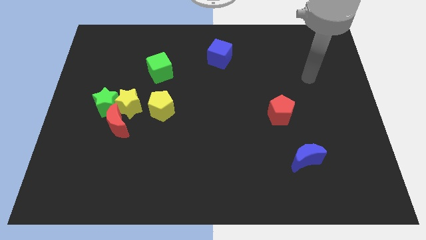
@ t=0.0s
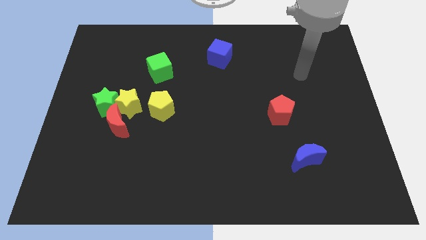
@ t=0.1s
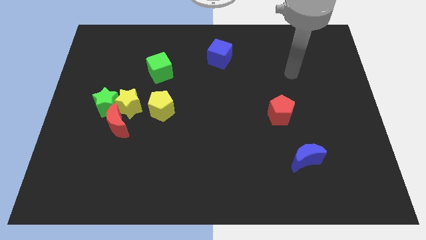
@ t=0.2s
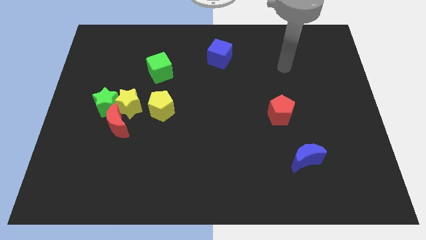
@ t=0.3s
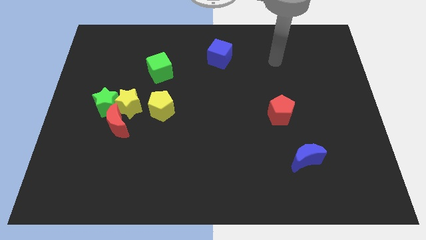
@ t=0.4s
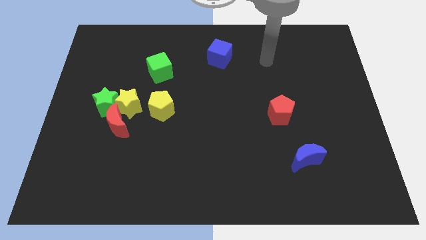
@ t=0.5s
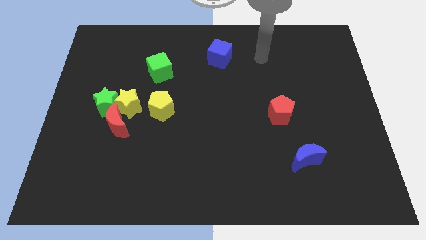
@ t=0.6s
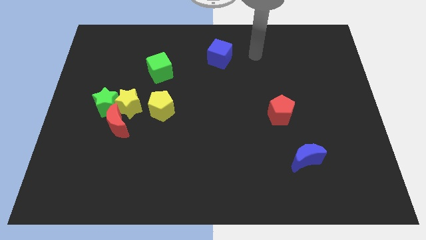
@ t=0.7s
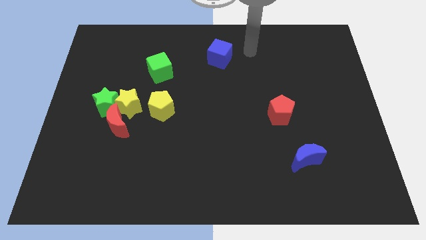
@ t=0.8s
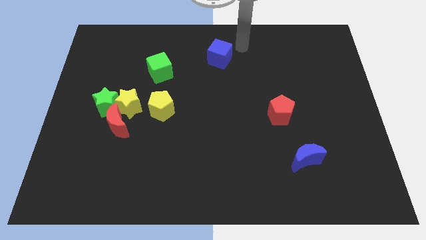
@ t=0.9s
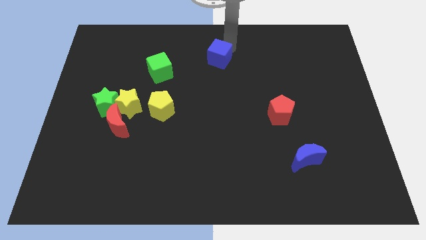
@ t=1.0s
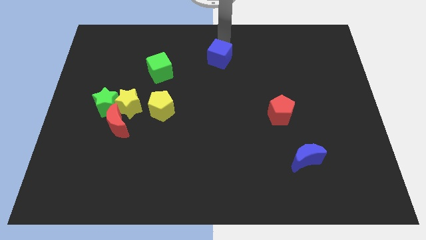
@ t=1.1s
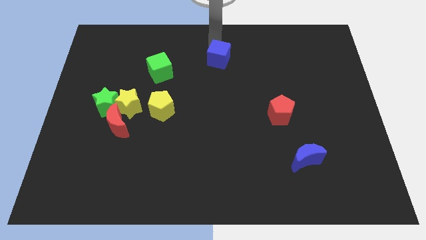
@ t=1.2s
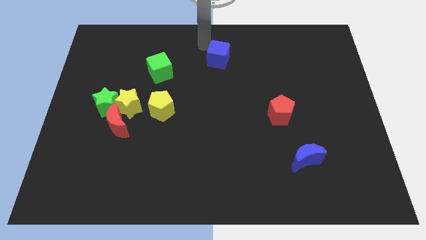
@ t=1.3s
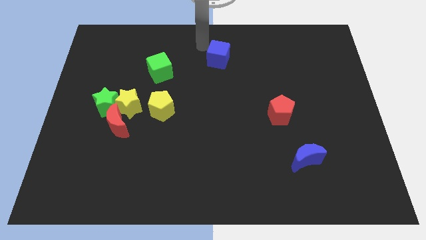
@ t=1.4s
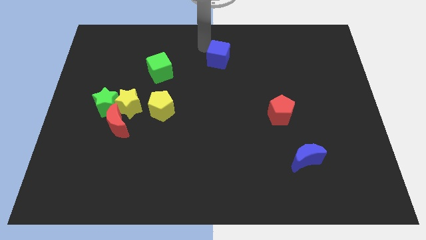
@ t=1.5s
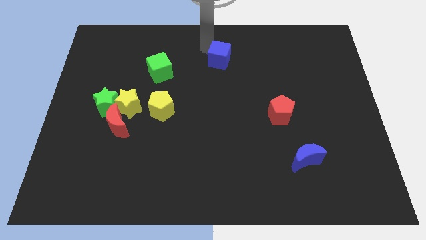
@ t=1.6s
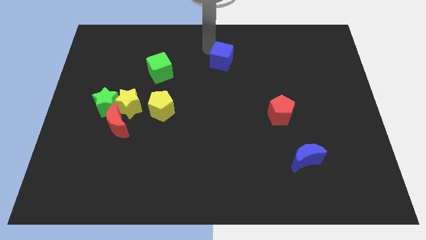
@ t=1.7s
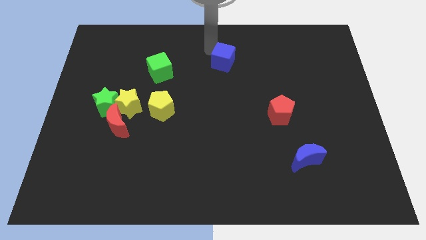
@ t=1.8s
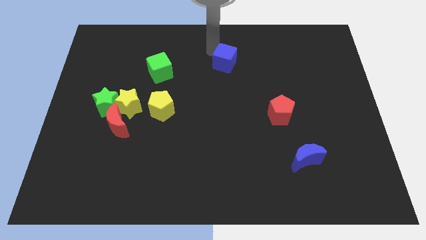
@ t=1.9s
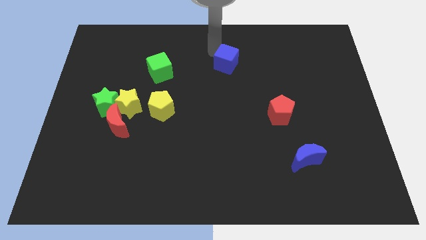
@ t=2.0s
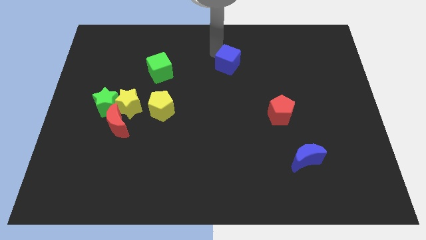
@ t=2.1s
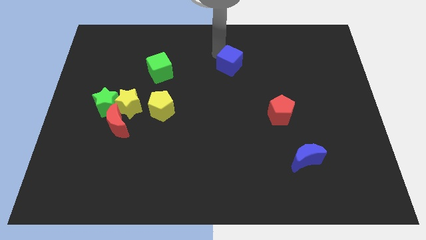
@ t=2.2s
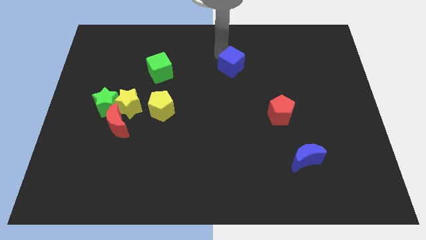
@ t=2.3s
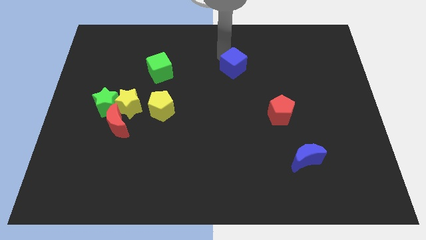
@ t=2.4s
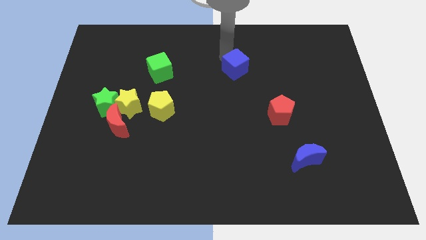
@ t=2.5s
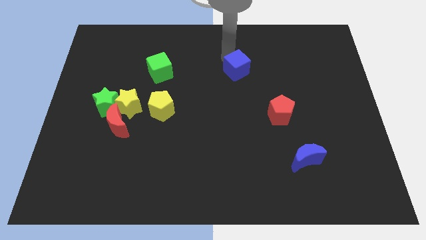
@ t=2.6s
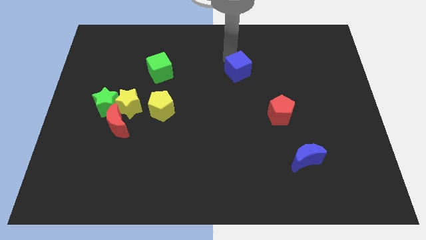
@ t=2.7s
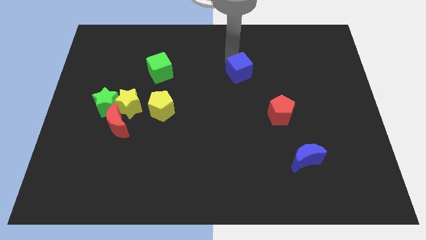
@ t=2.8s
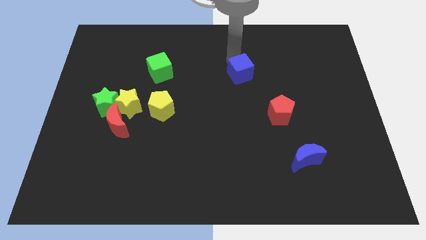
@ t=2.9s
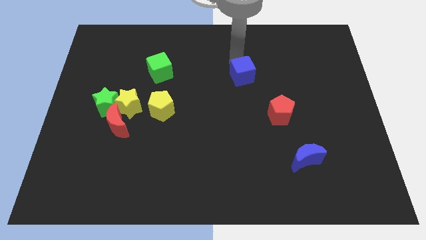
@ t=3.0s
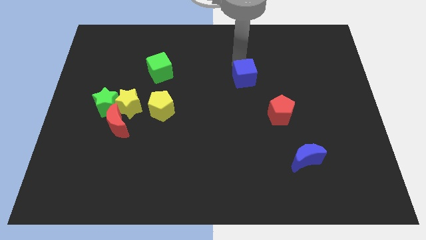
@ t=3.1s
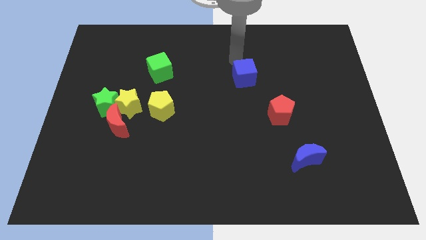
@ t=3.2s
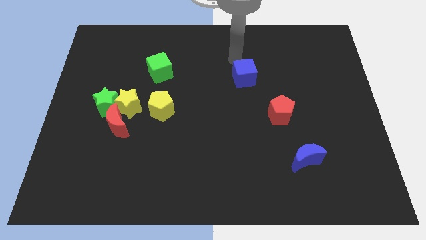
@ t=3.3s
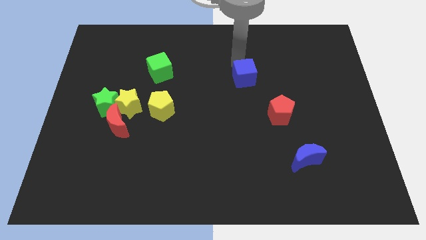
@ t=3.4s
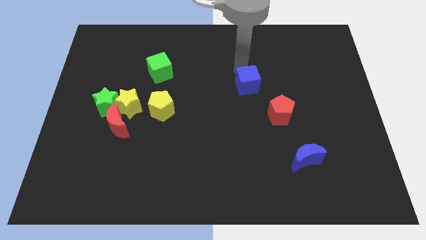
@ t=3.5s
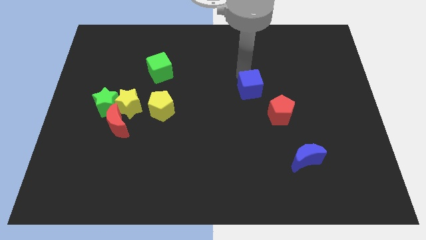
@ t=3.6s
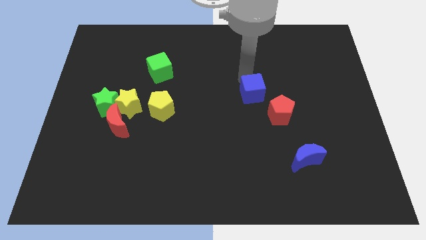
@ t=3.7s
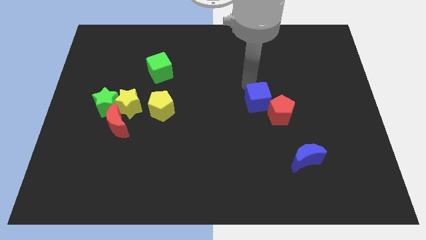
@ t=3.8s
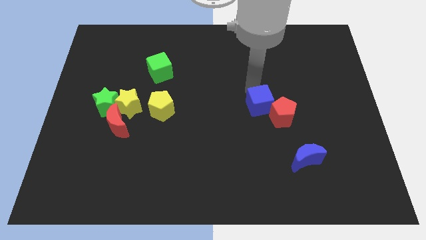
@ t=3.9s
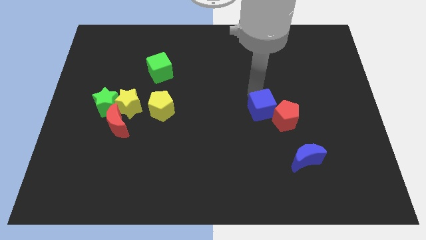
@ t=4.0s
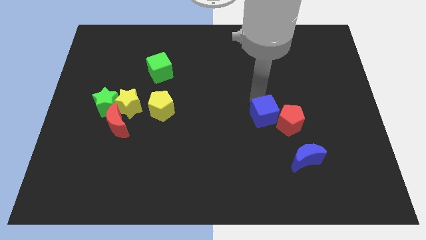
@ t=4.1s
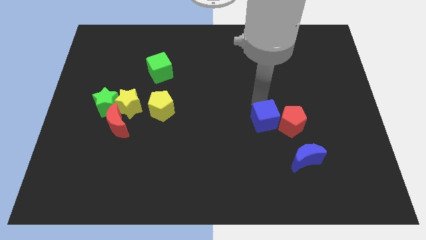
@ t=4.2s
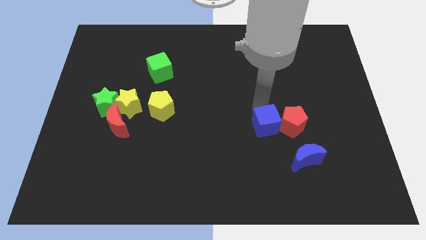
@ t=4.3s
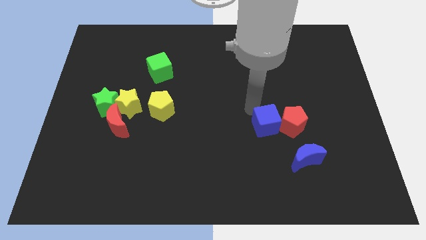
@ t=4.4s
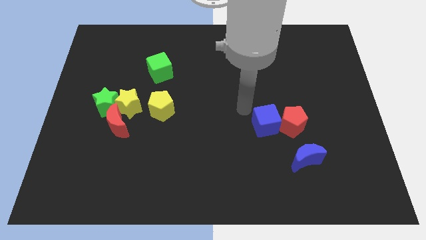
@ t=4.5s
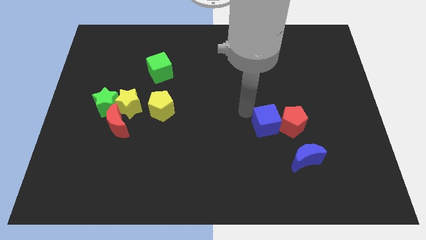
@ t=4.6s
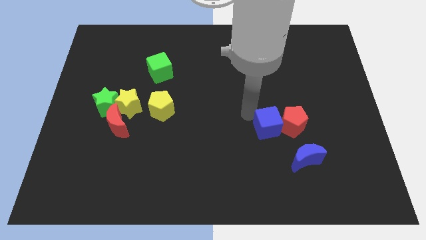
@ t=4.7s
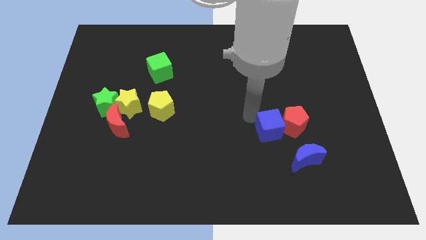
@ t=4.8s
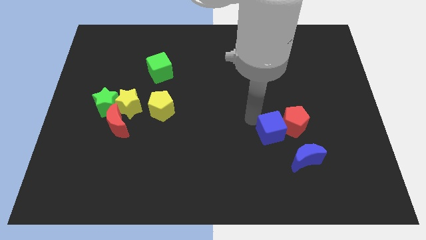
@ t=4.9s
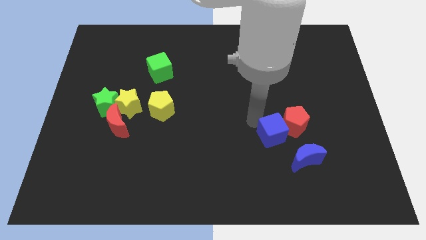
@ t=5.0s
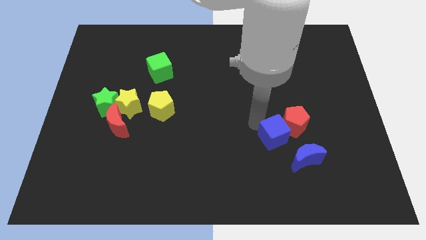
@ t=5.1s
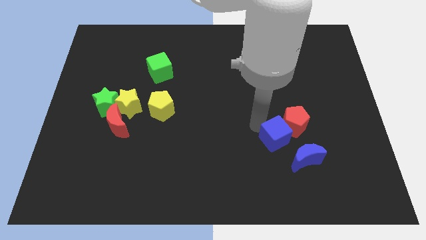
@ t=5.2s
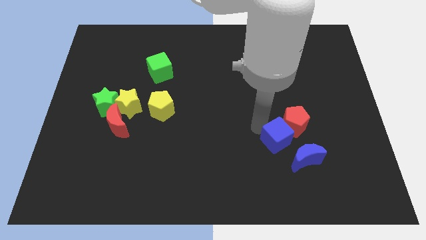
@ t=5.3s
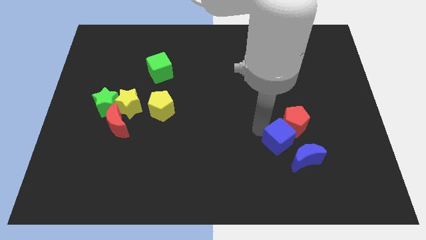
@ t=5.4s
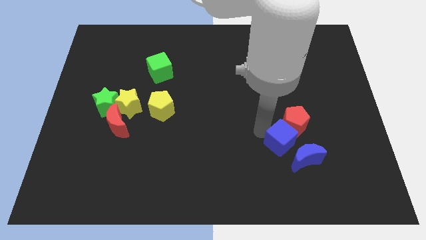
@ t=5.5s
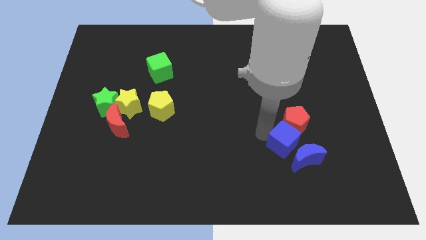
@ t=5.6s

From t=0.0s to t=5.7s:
slide the blue cube close to the blue moon

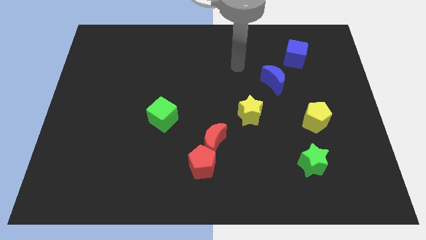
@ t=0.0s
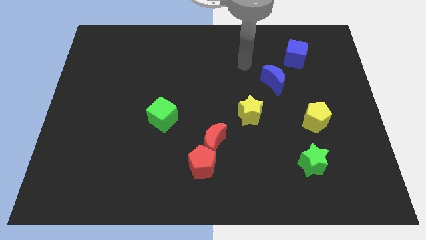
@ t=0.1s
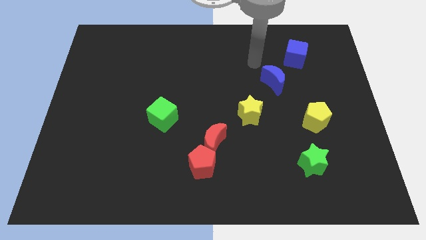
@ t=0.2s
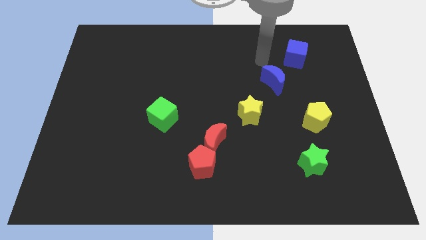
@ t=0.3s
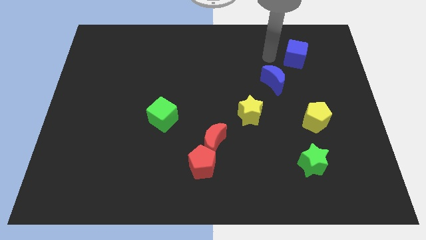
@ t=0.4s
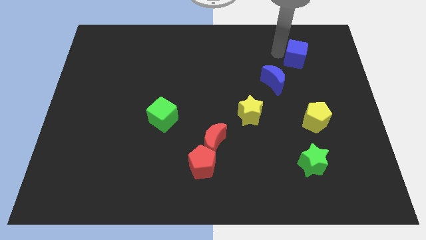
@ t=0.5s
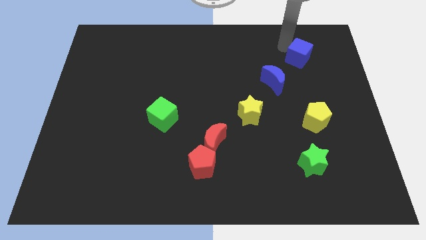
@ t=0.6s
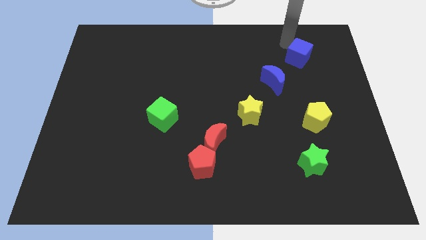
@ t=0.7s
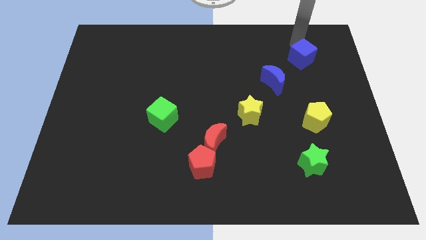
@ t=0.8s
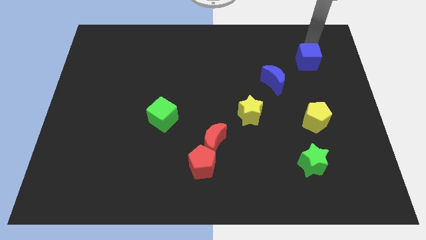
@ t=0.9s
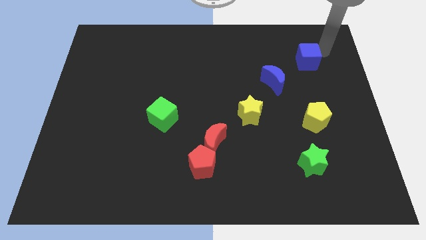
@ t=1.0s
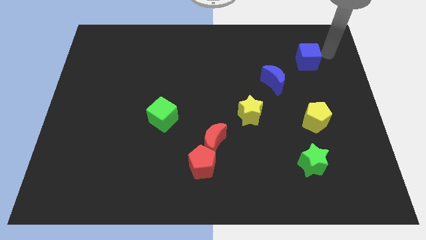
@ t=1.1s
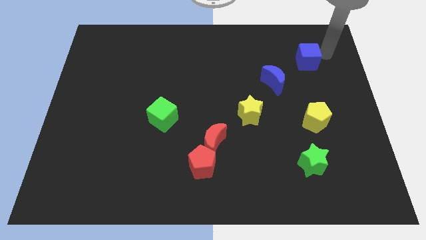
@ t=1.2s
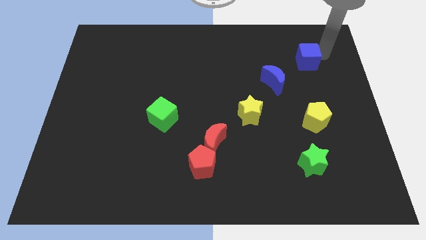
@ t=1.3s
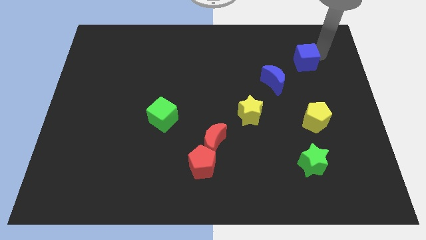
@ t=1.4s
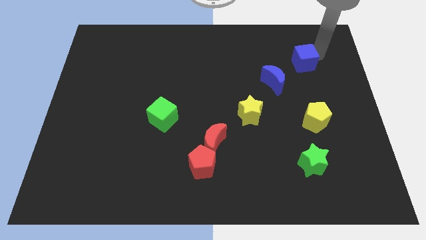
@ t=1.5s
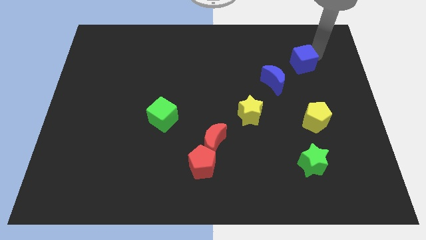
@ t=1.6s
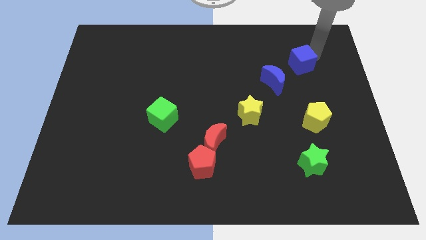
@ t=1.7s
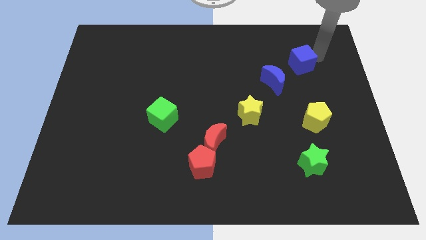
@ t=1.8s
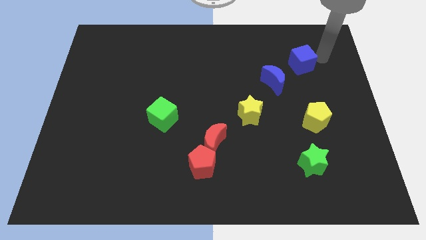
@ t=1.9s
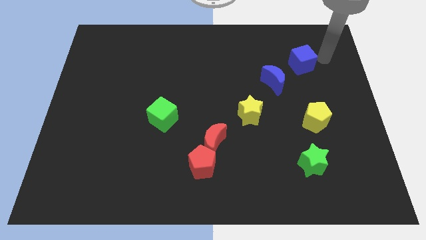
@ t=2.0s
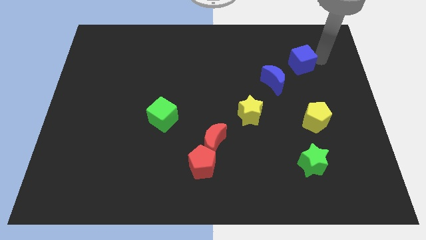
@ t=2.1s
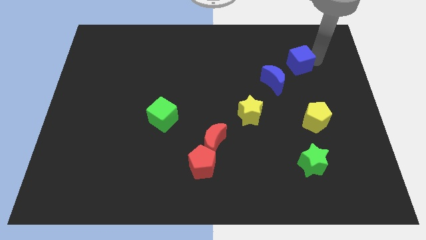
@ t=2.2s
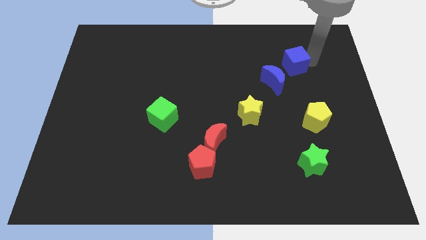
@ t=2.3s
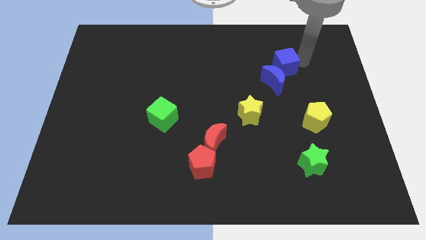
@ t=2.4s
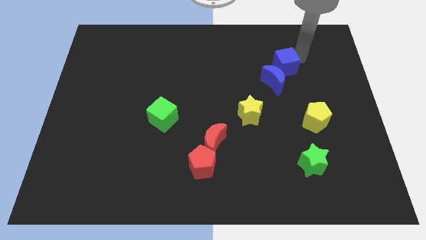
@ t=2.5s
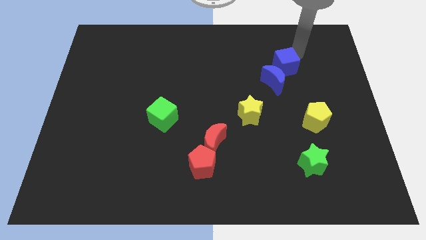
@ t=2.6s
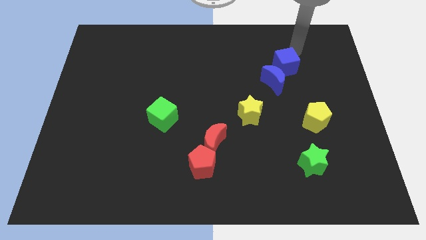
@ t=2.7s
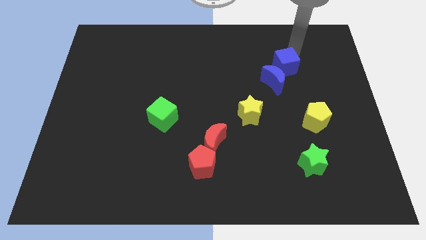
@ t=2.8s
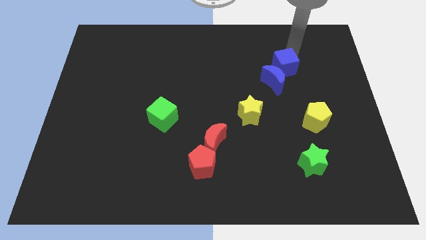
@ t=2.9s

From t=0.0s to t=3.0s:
move the blue cube to the blue moon
